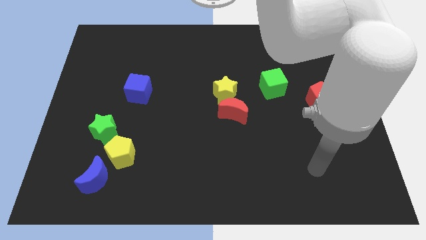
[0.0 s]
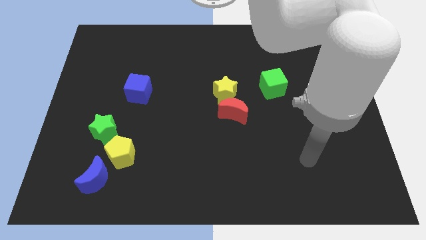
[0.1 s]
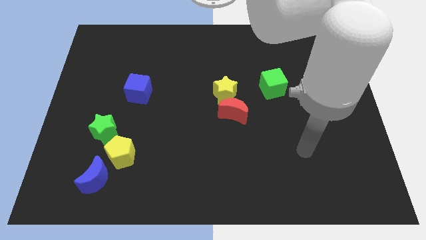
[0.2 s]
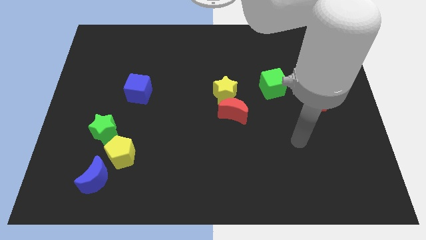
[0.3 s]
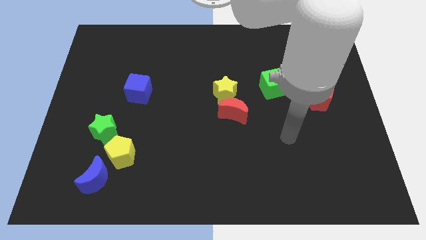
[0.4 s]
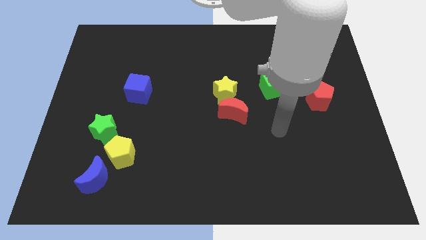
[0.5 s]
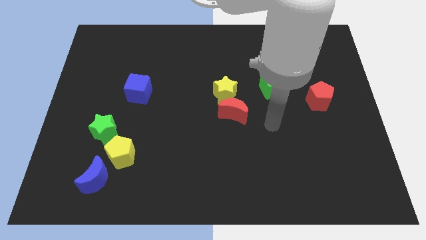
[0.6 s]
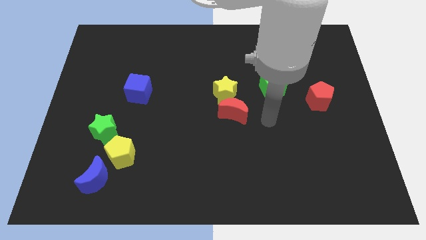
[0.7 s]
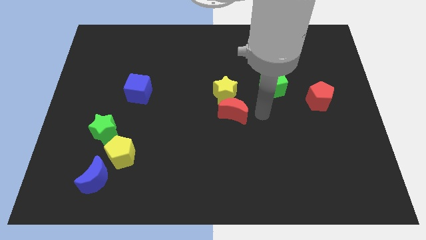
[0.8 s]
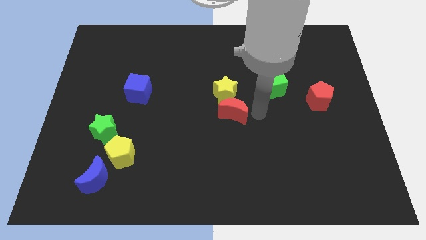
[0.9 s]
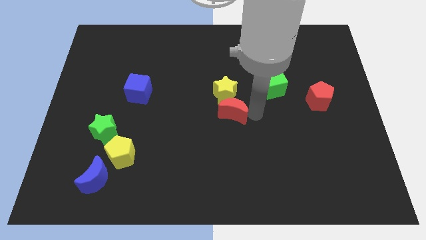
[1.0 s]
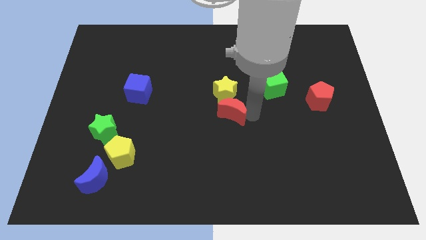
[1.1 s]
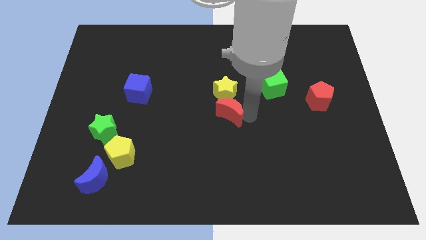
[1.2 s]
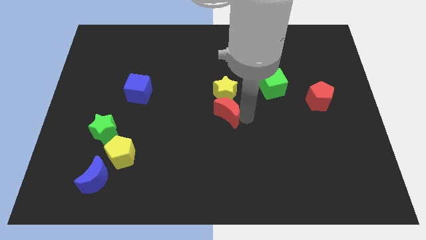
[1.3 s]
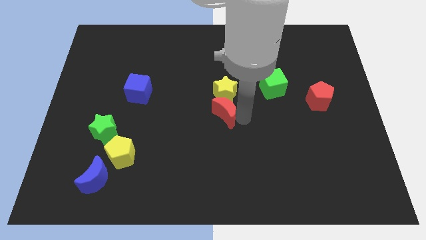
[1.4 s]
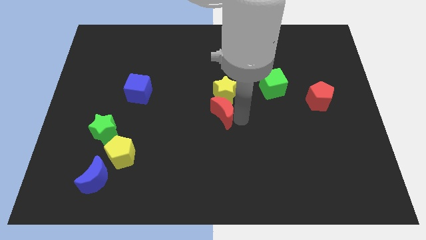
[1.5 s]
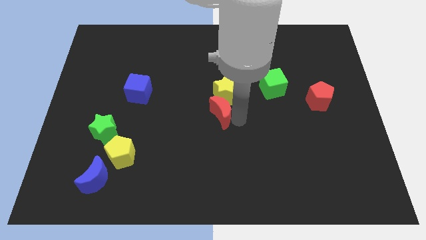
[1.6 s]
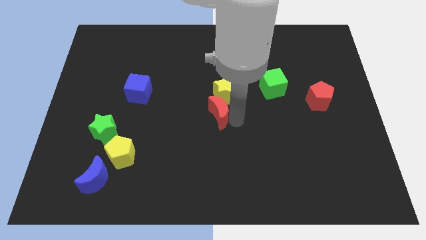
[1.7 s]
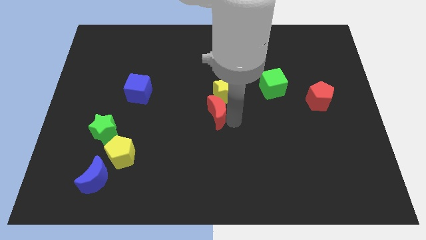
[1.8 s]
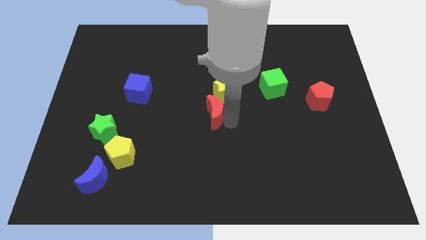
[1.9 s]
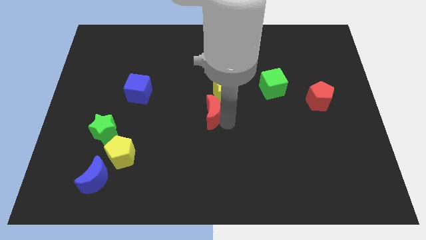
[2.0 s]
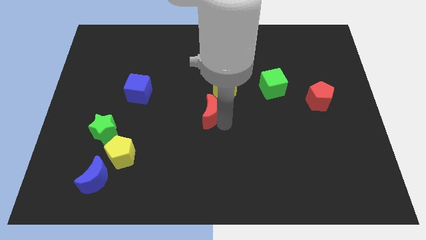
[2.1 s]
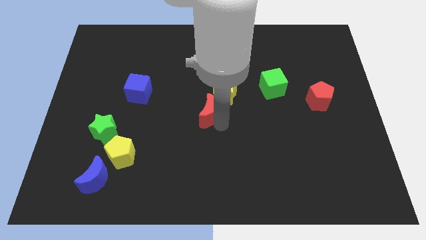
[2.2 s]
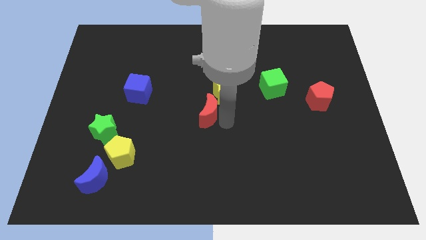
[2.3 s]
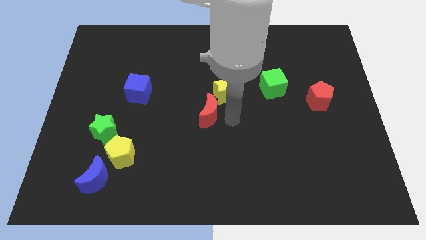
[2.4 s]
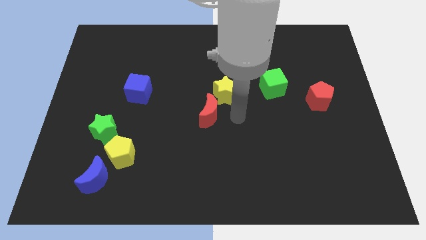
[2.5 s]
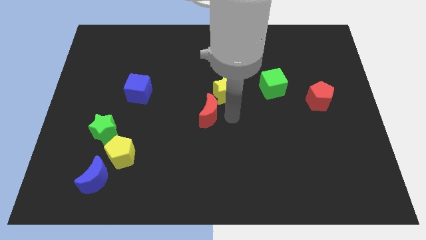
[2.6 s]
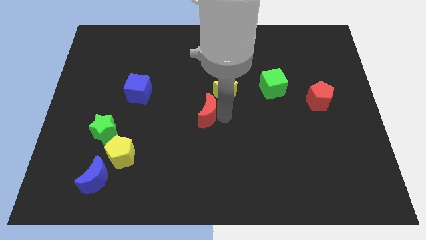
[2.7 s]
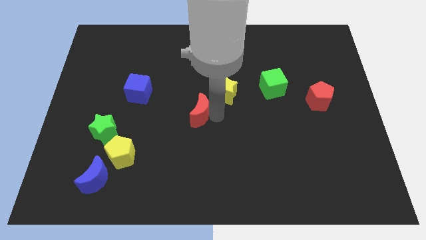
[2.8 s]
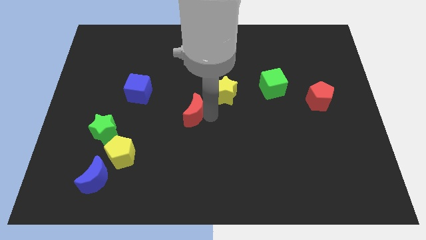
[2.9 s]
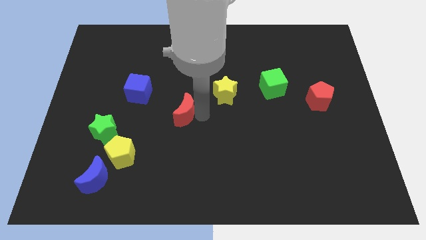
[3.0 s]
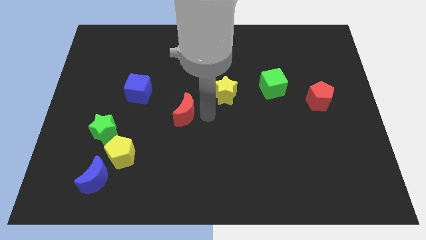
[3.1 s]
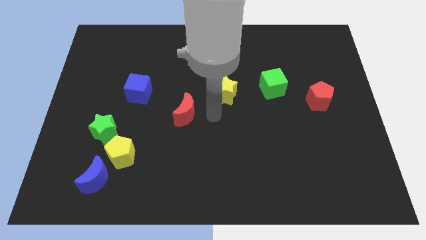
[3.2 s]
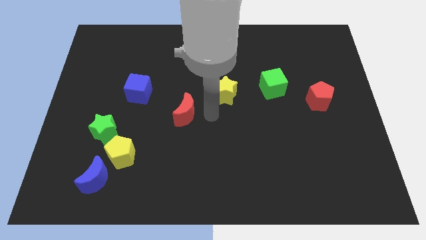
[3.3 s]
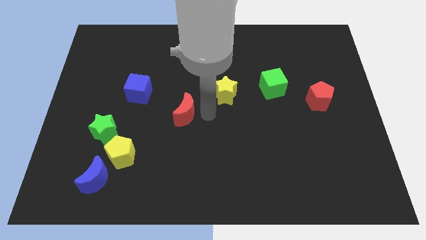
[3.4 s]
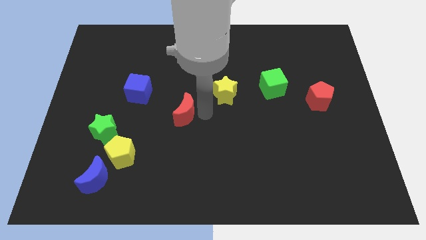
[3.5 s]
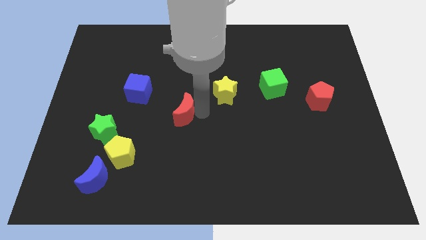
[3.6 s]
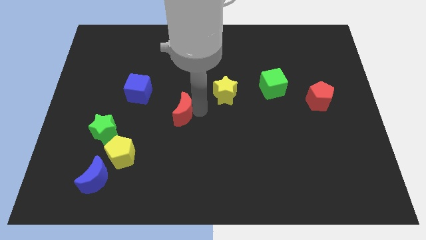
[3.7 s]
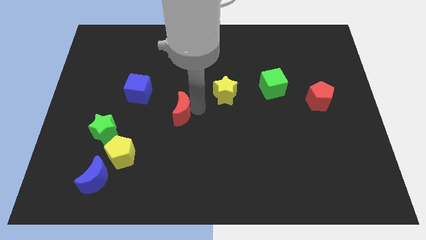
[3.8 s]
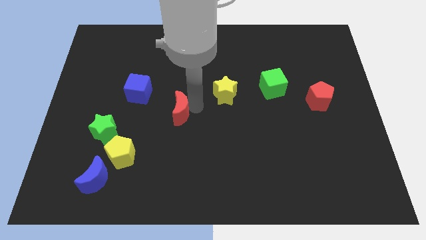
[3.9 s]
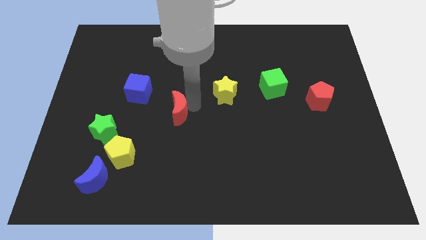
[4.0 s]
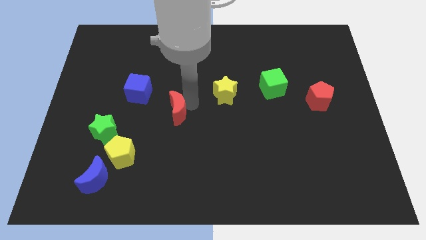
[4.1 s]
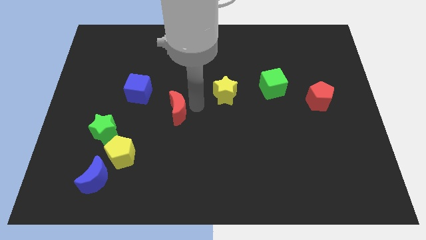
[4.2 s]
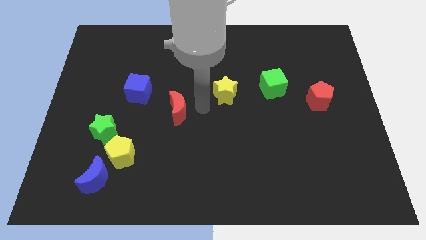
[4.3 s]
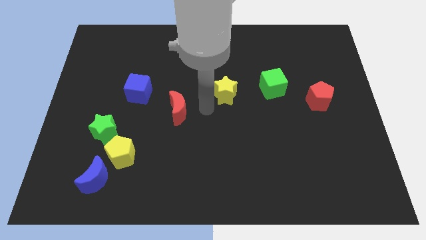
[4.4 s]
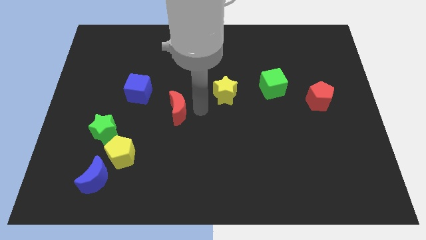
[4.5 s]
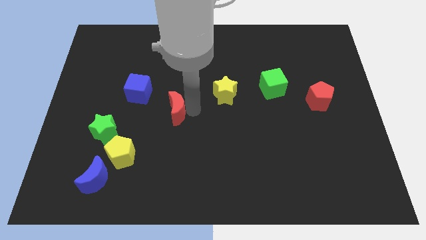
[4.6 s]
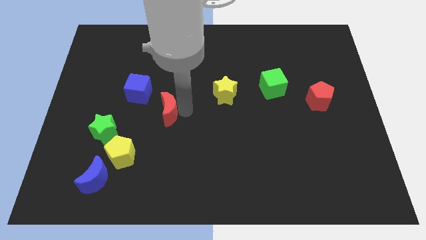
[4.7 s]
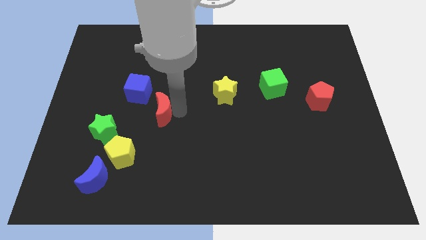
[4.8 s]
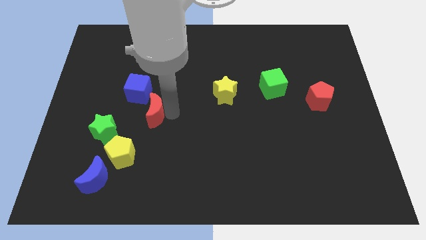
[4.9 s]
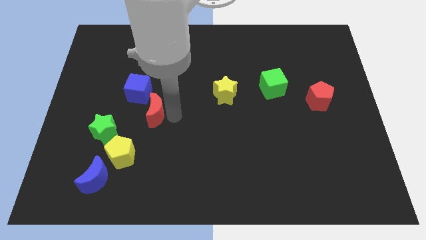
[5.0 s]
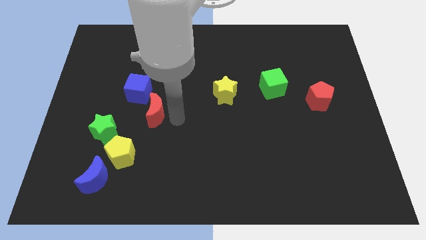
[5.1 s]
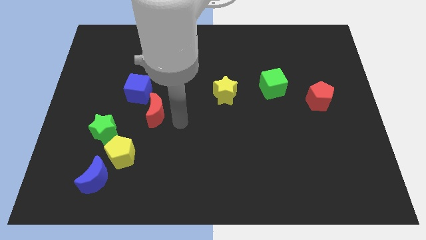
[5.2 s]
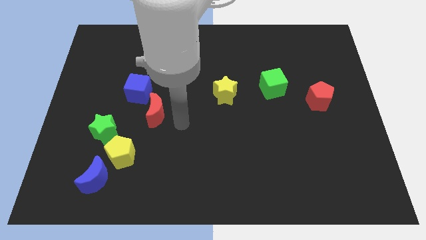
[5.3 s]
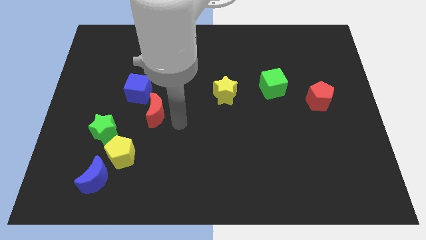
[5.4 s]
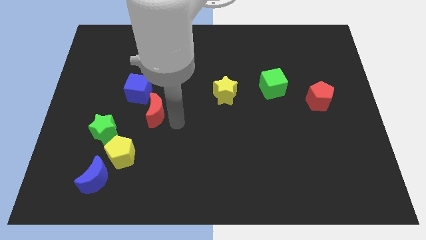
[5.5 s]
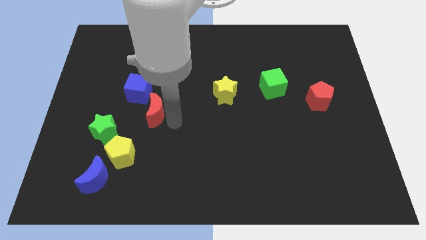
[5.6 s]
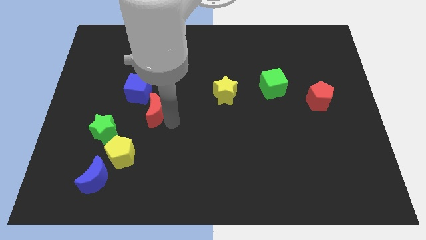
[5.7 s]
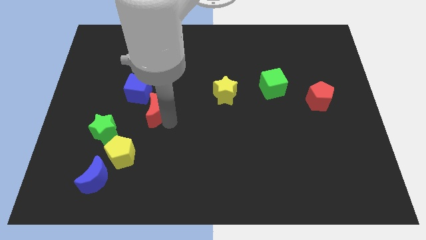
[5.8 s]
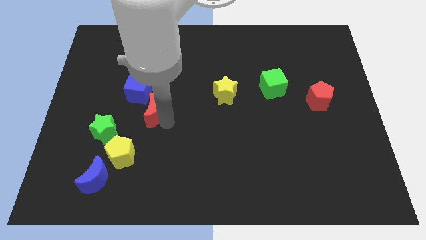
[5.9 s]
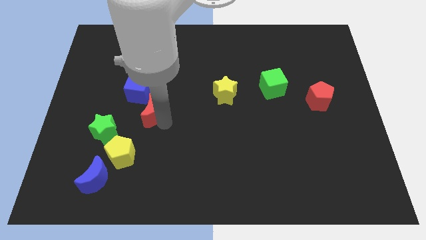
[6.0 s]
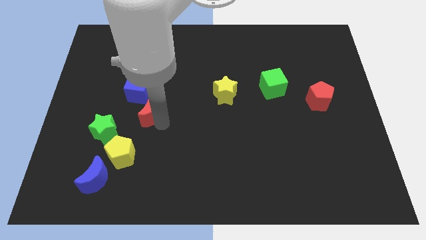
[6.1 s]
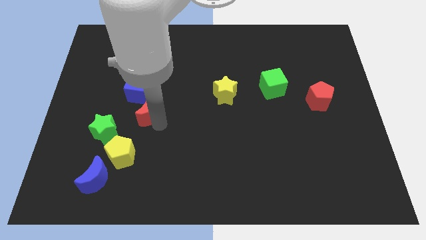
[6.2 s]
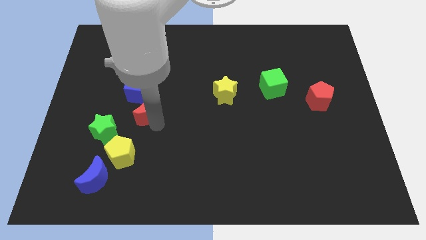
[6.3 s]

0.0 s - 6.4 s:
push the red moon left

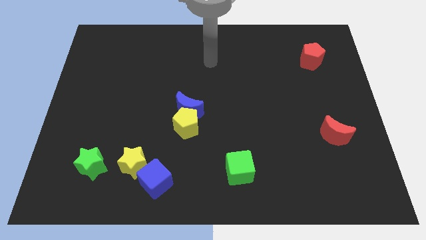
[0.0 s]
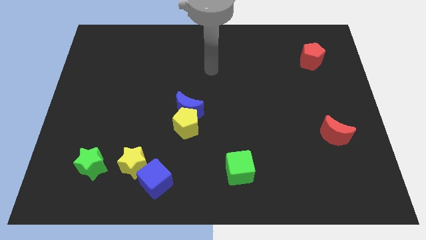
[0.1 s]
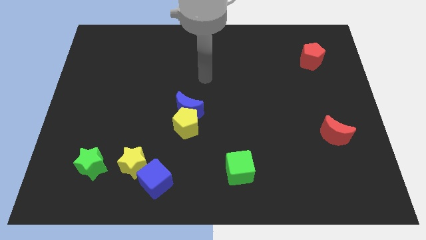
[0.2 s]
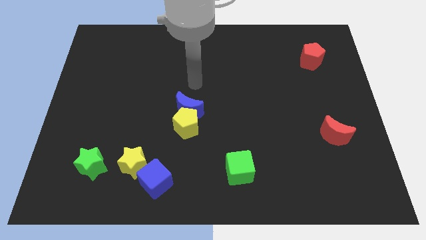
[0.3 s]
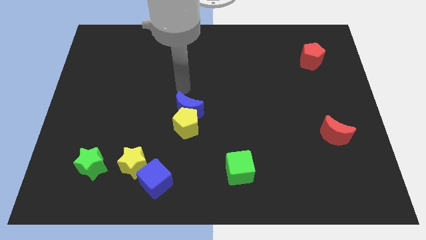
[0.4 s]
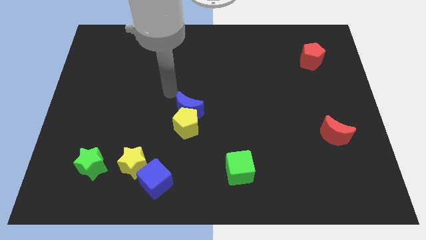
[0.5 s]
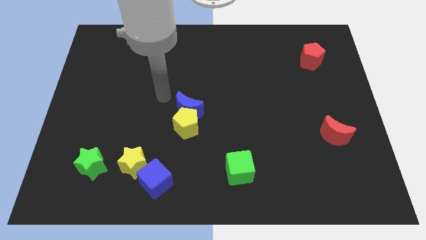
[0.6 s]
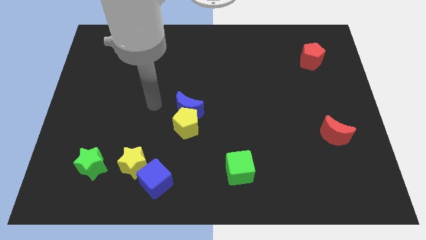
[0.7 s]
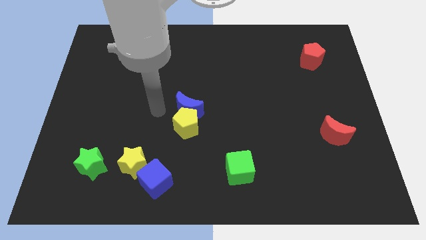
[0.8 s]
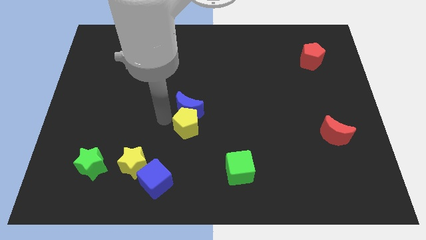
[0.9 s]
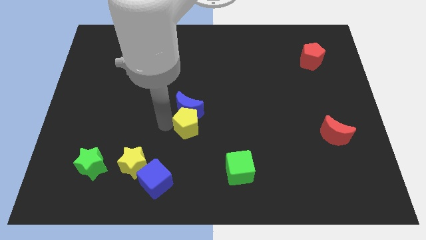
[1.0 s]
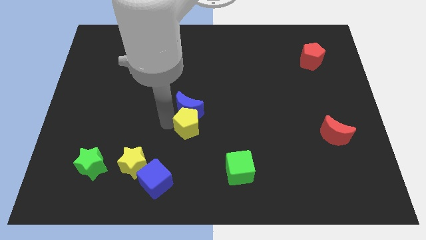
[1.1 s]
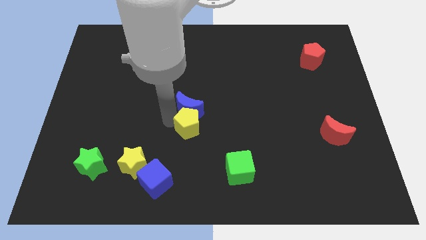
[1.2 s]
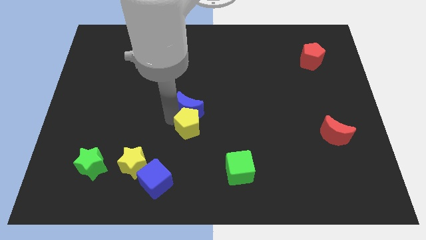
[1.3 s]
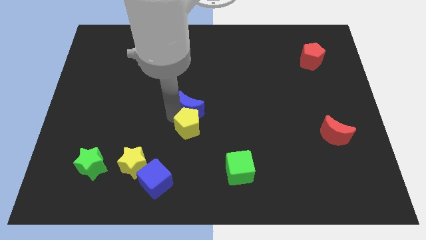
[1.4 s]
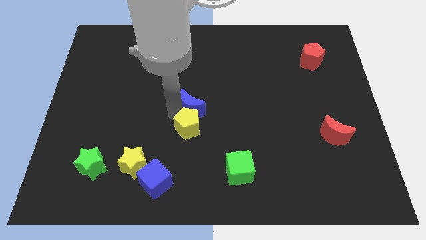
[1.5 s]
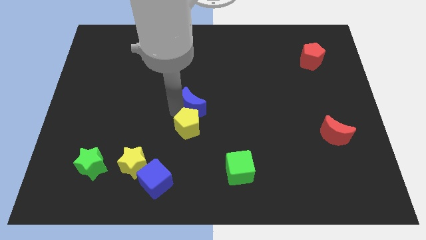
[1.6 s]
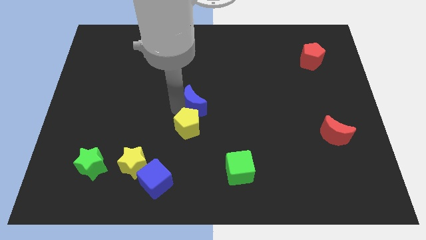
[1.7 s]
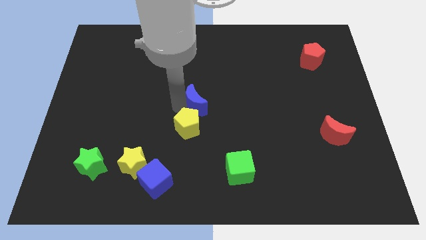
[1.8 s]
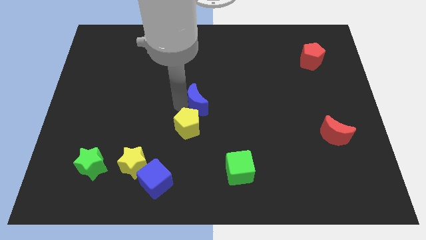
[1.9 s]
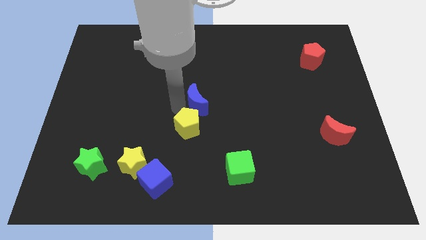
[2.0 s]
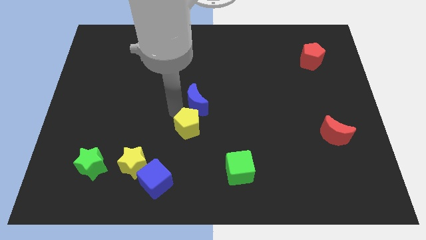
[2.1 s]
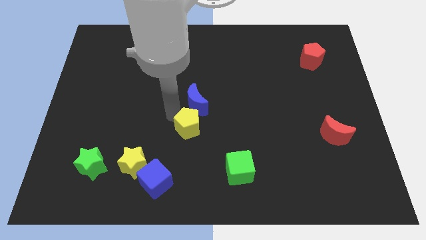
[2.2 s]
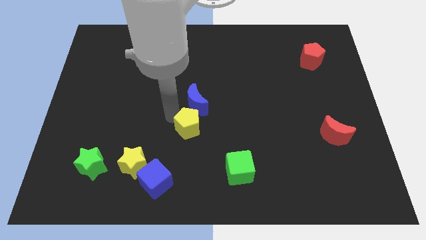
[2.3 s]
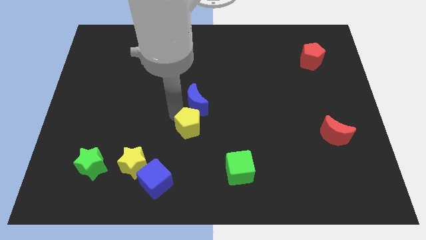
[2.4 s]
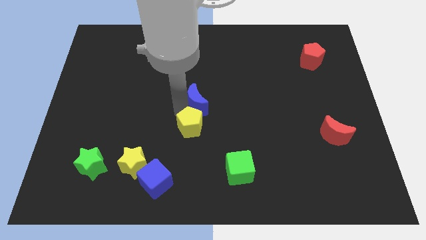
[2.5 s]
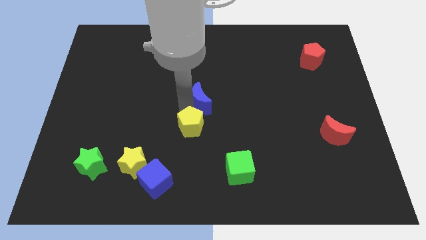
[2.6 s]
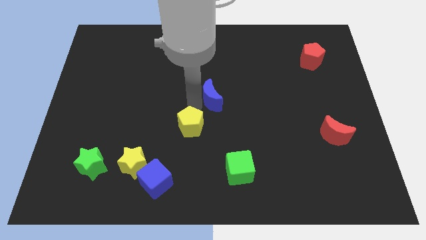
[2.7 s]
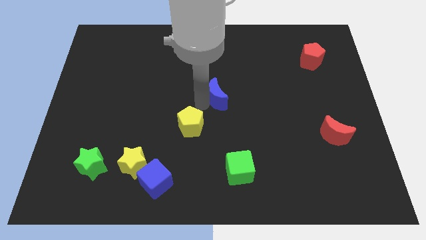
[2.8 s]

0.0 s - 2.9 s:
slightly push the blue moon upwards and then right
